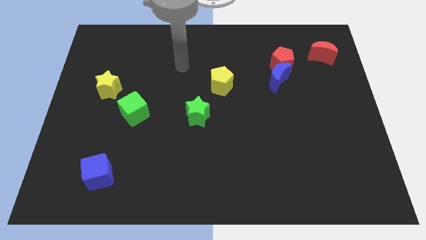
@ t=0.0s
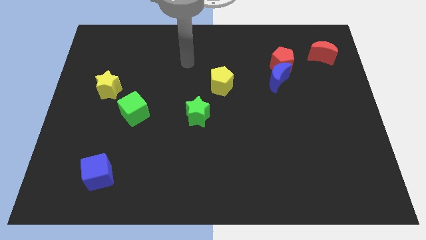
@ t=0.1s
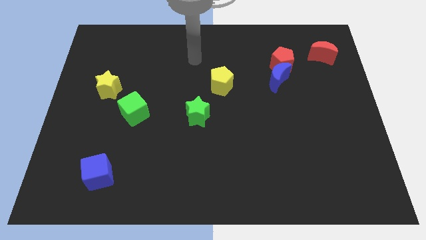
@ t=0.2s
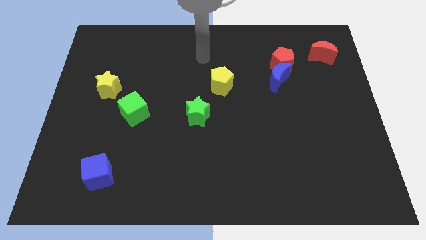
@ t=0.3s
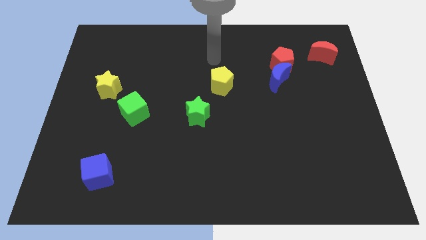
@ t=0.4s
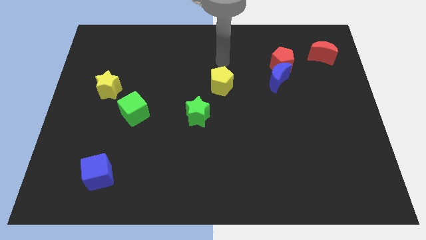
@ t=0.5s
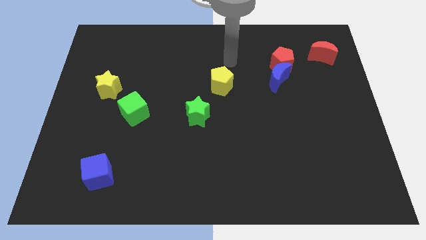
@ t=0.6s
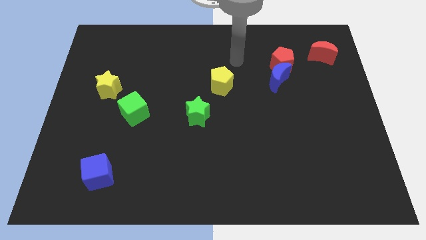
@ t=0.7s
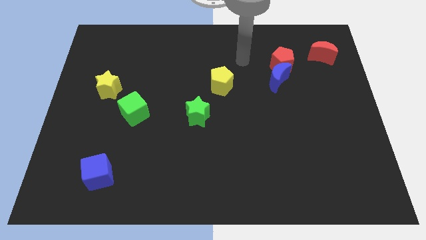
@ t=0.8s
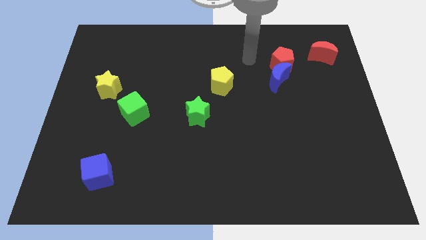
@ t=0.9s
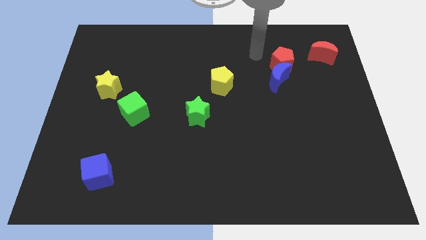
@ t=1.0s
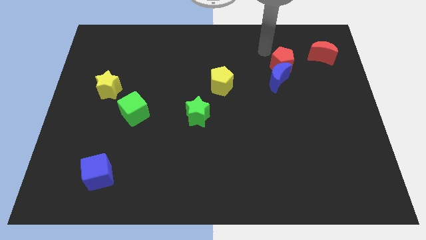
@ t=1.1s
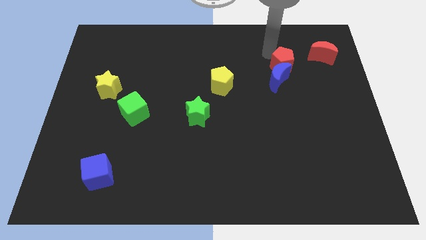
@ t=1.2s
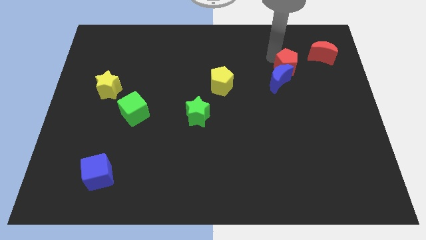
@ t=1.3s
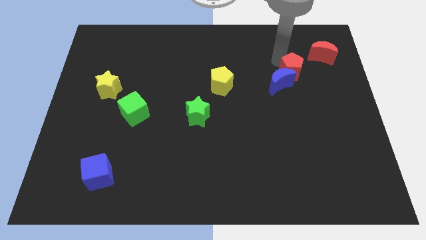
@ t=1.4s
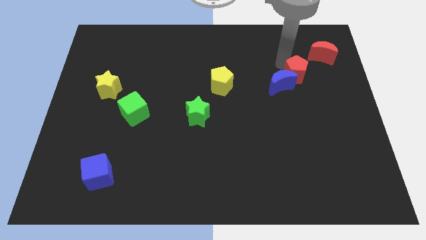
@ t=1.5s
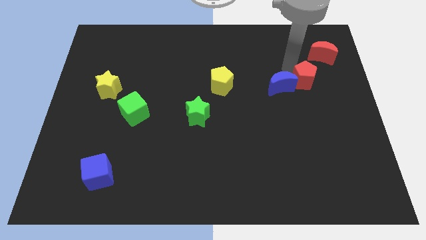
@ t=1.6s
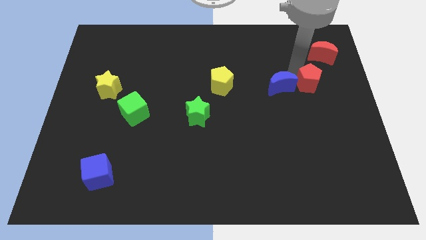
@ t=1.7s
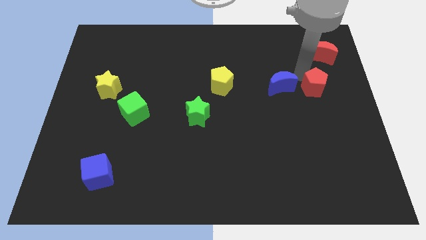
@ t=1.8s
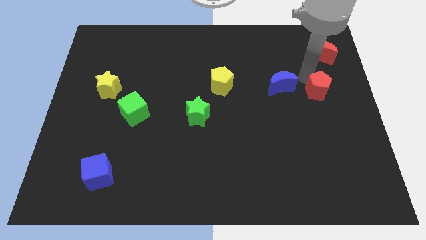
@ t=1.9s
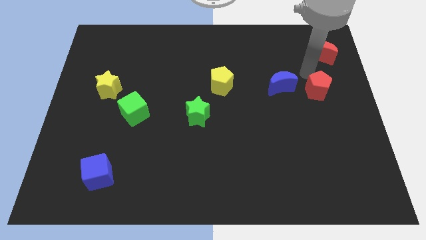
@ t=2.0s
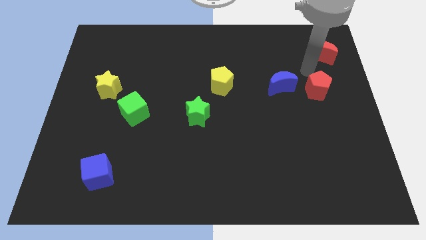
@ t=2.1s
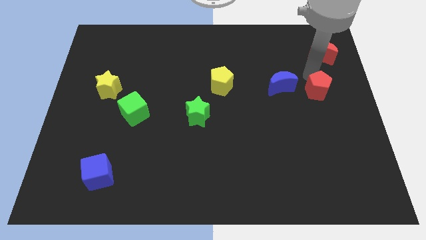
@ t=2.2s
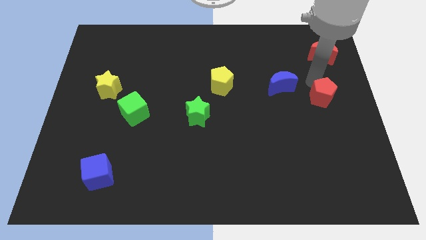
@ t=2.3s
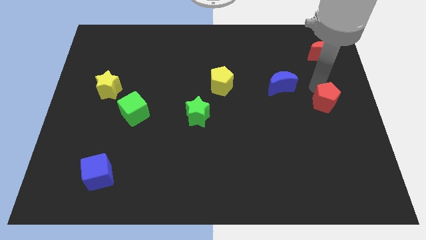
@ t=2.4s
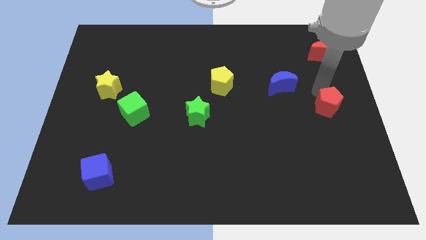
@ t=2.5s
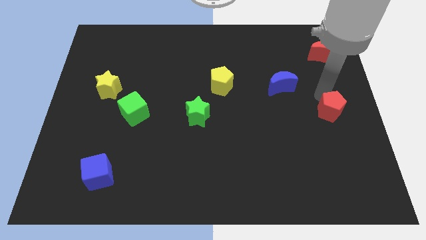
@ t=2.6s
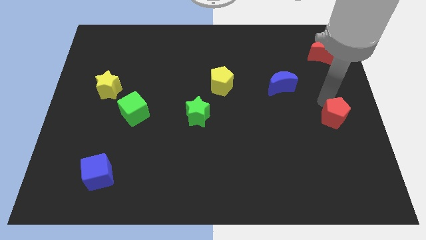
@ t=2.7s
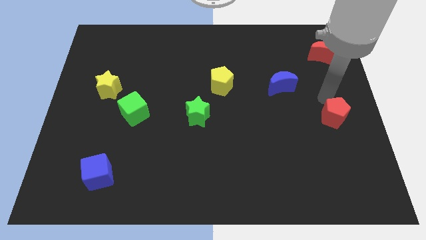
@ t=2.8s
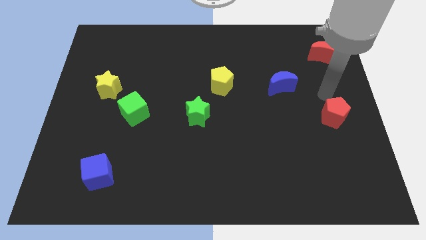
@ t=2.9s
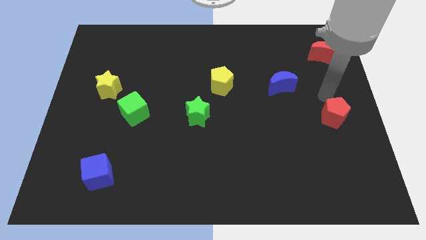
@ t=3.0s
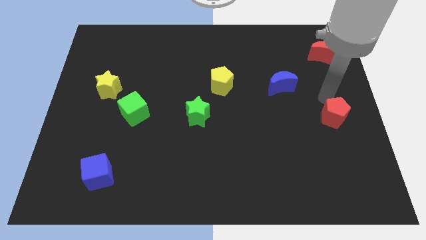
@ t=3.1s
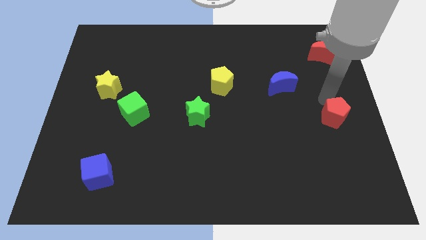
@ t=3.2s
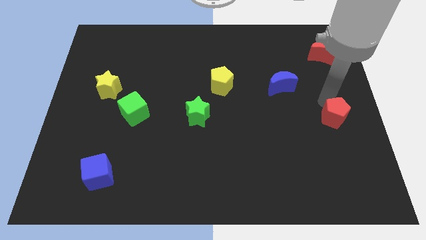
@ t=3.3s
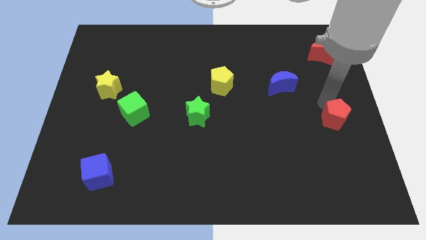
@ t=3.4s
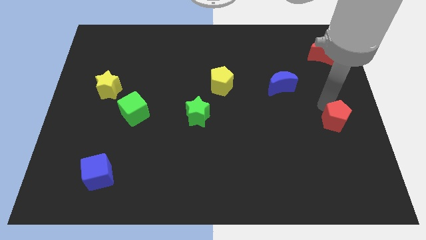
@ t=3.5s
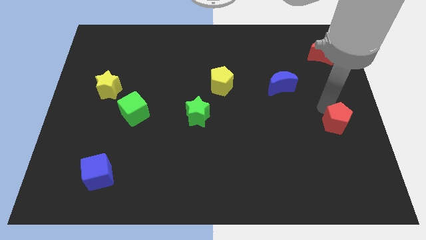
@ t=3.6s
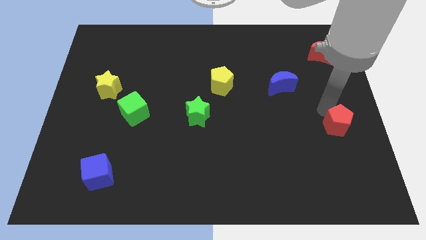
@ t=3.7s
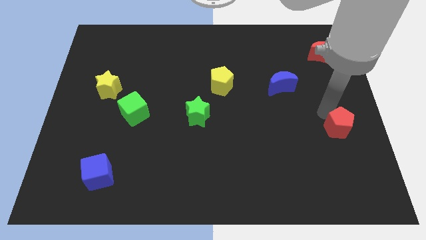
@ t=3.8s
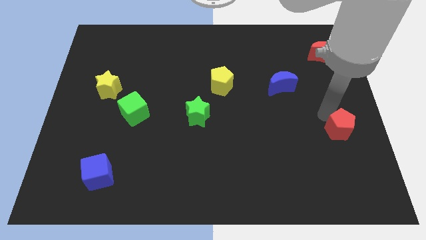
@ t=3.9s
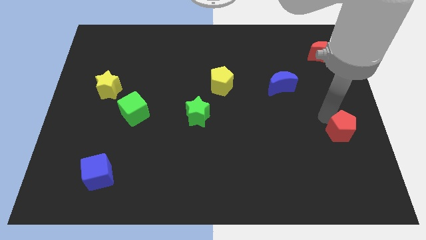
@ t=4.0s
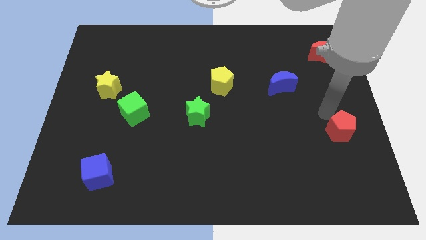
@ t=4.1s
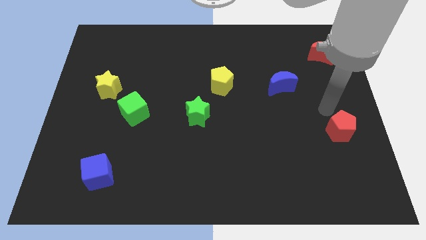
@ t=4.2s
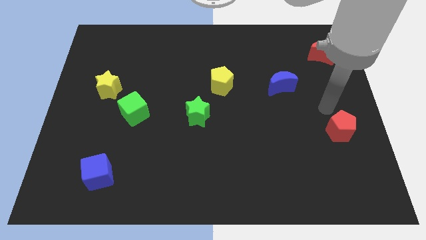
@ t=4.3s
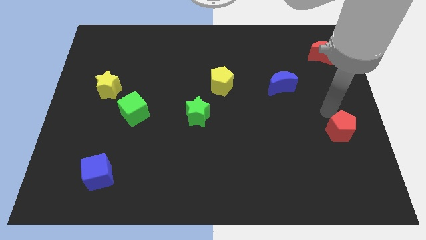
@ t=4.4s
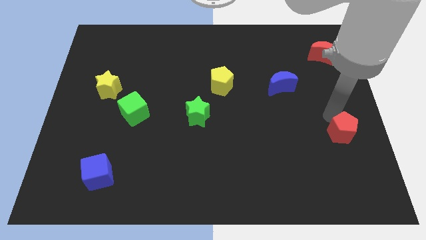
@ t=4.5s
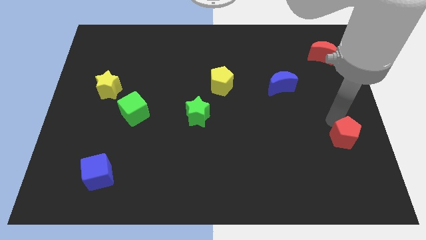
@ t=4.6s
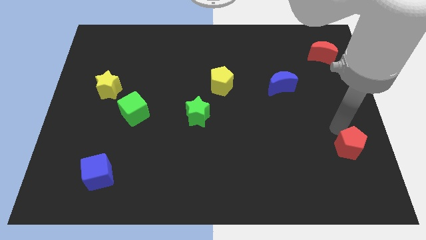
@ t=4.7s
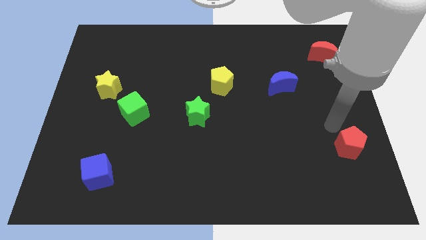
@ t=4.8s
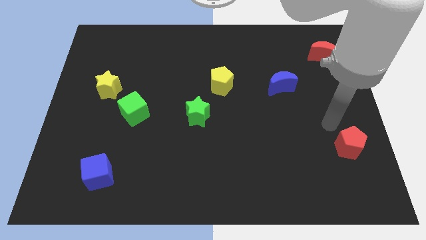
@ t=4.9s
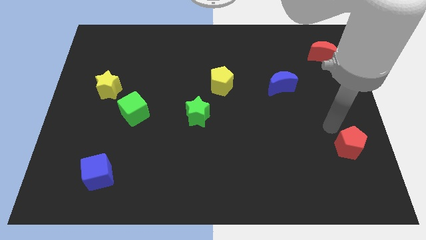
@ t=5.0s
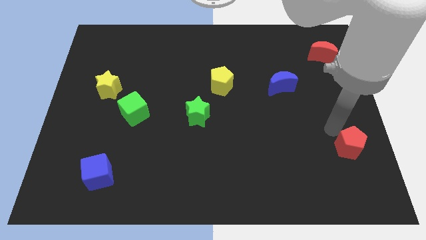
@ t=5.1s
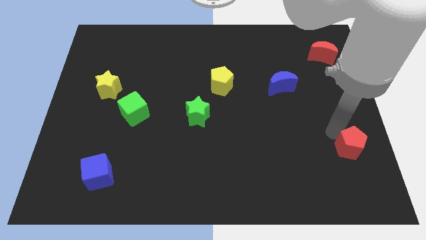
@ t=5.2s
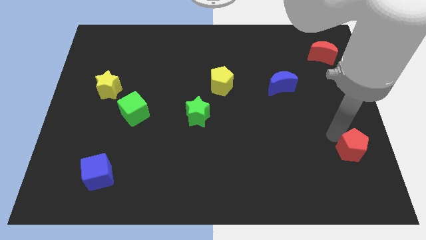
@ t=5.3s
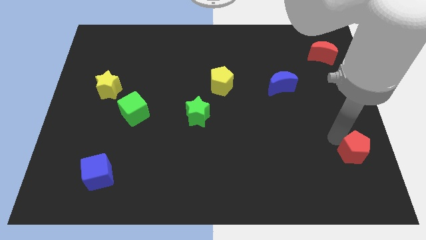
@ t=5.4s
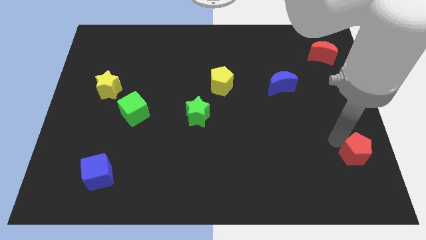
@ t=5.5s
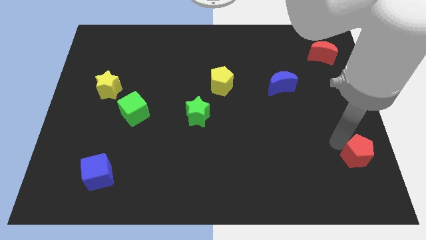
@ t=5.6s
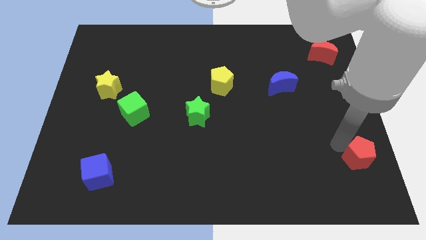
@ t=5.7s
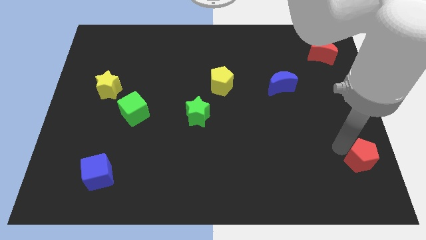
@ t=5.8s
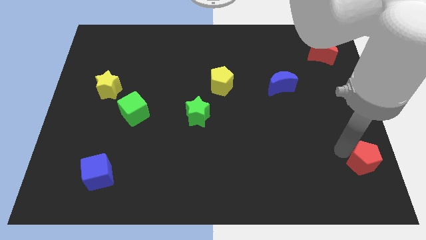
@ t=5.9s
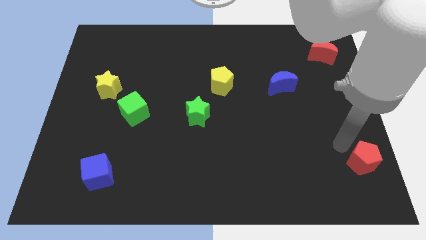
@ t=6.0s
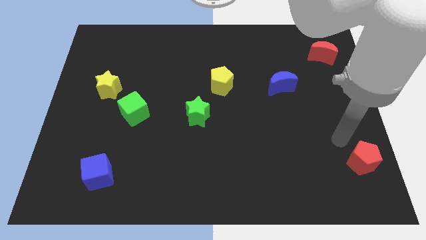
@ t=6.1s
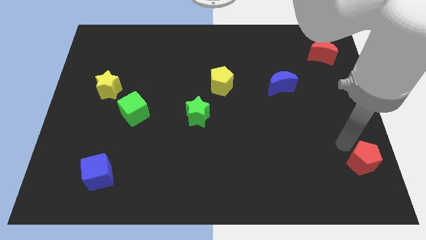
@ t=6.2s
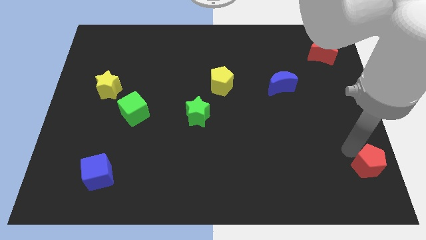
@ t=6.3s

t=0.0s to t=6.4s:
slide the red pentagon to the bottom right of the board
